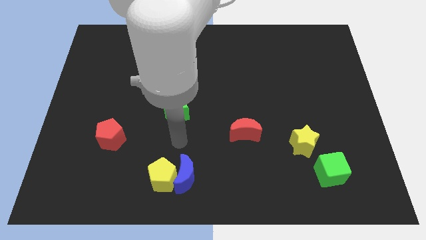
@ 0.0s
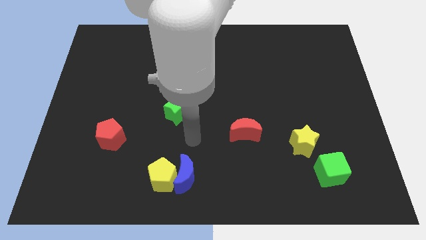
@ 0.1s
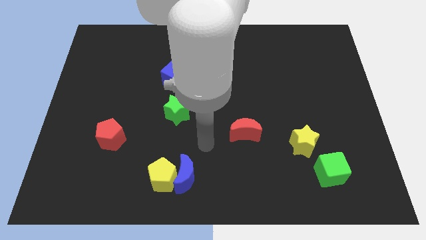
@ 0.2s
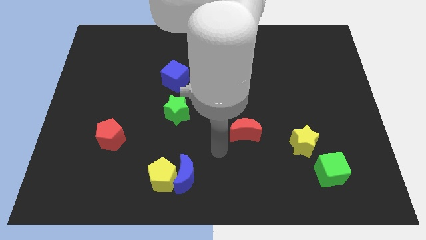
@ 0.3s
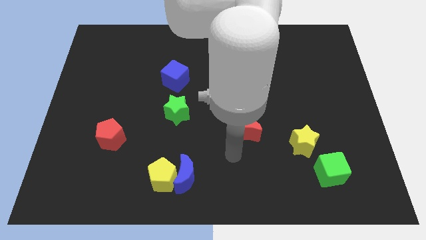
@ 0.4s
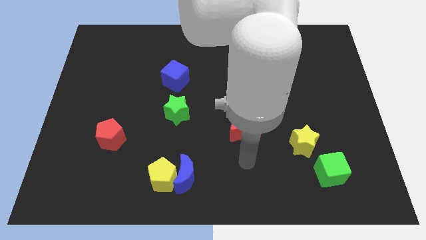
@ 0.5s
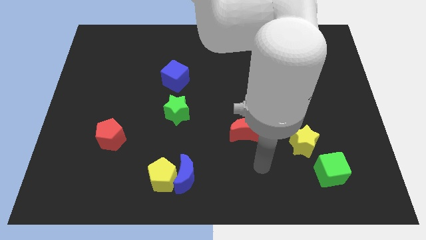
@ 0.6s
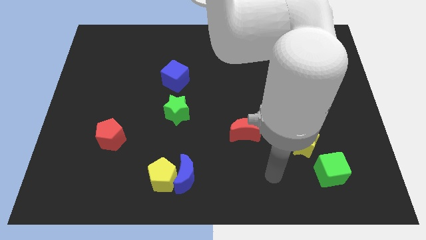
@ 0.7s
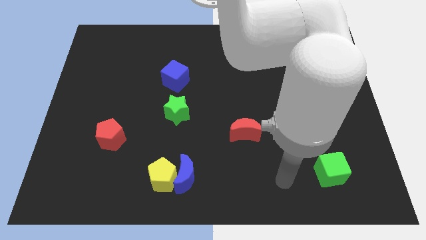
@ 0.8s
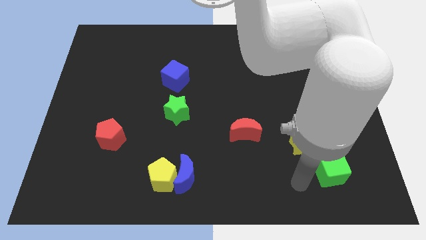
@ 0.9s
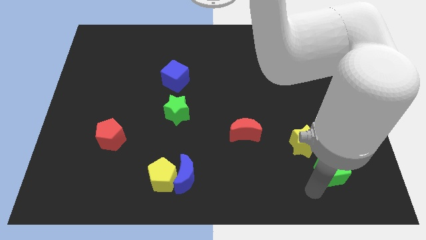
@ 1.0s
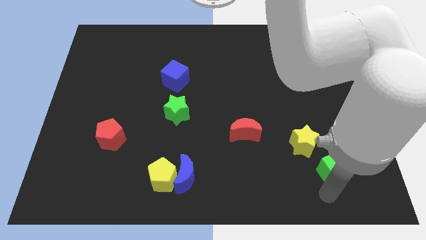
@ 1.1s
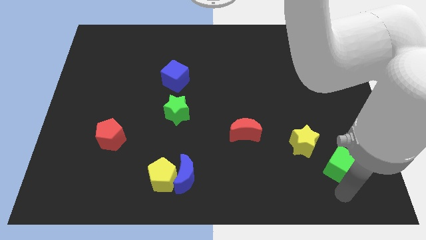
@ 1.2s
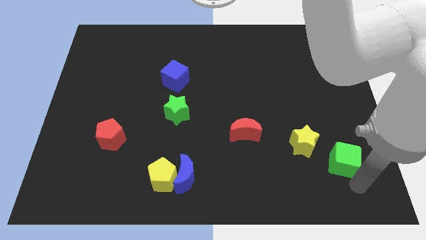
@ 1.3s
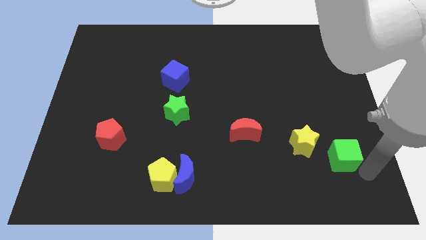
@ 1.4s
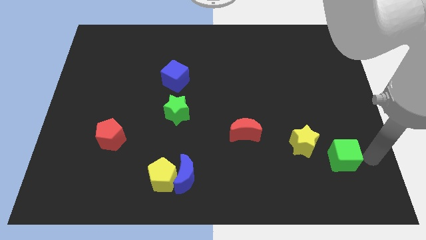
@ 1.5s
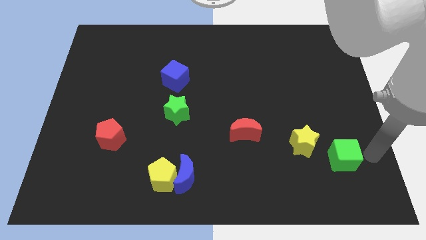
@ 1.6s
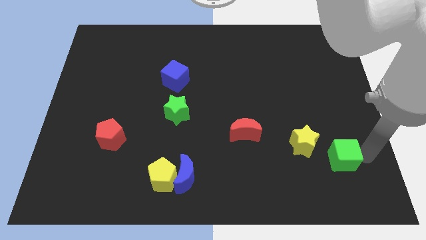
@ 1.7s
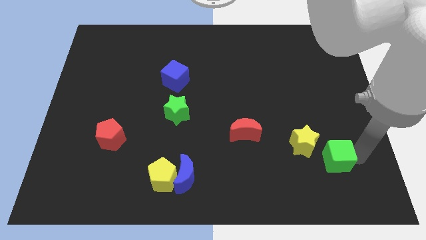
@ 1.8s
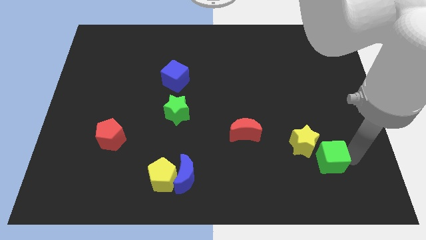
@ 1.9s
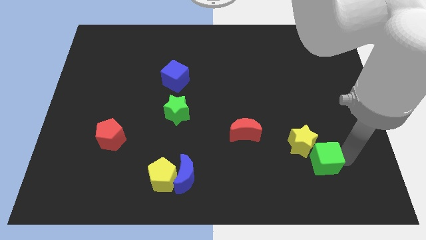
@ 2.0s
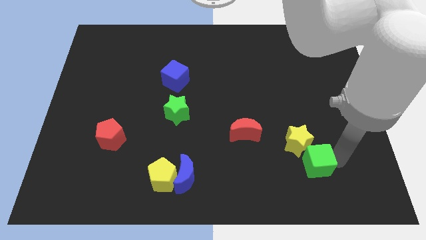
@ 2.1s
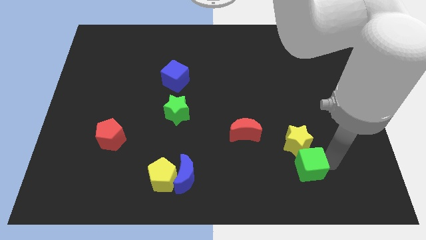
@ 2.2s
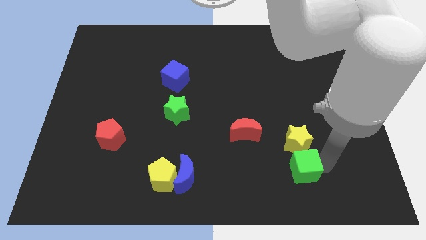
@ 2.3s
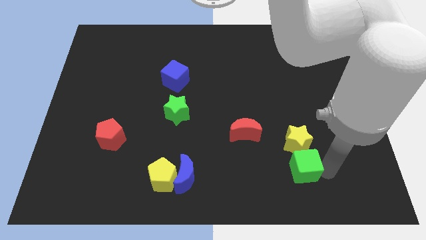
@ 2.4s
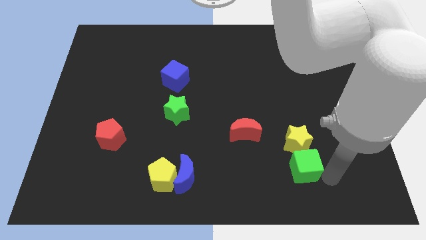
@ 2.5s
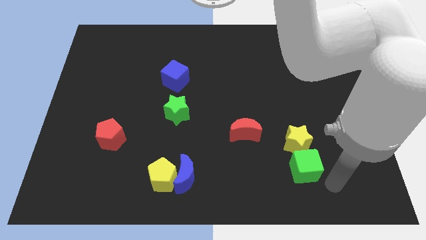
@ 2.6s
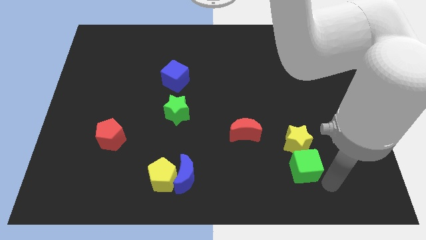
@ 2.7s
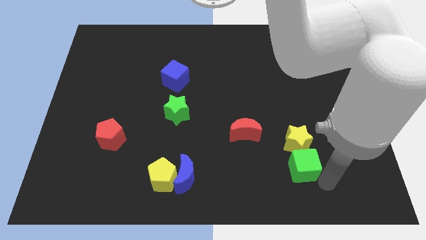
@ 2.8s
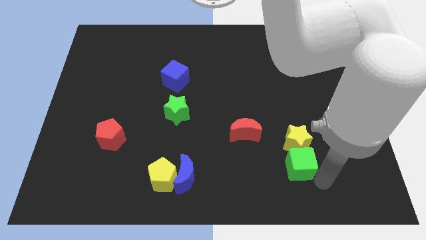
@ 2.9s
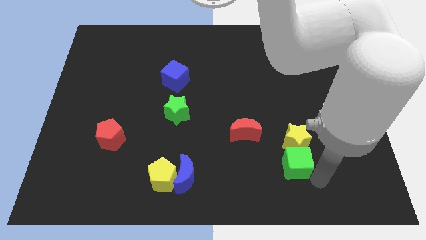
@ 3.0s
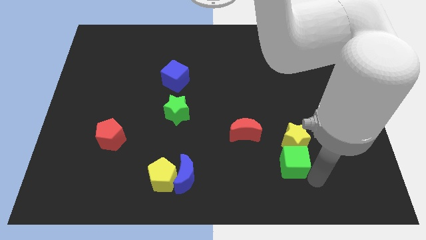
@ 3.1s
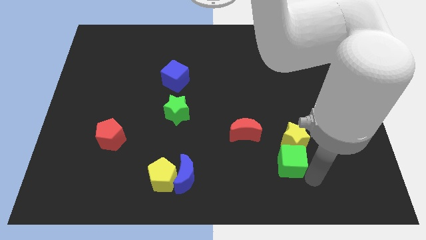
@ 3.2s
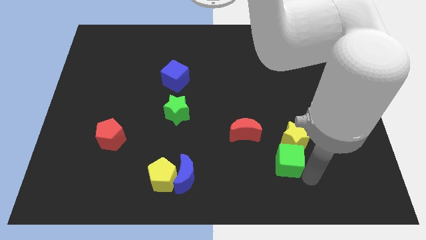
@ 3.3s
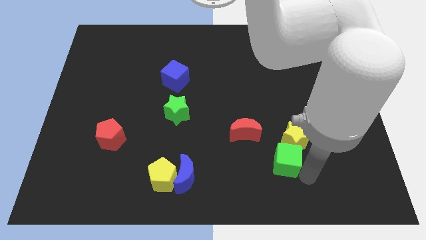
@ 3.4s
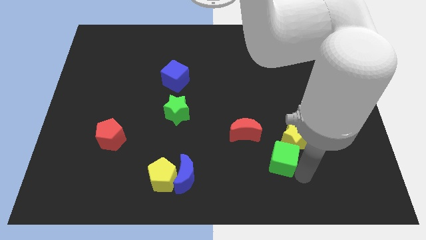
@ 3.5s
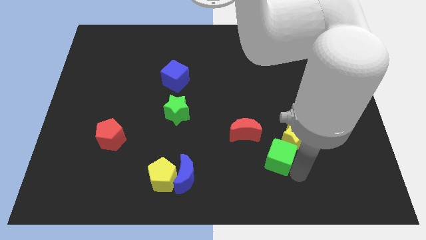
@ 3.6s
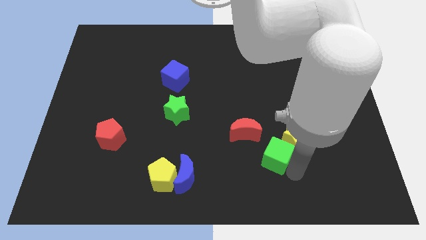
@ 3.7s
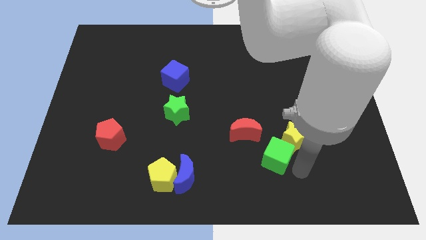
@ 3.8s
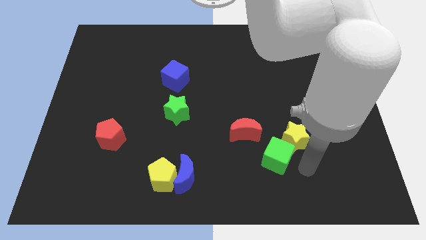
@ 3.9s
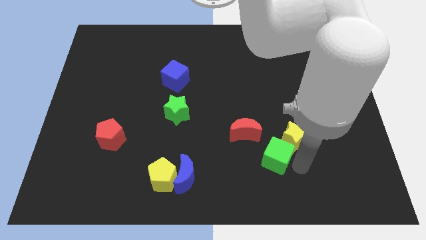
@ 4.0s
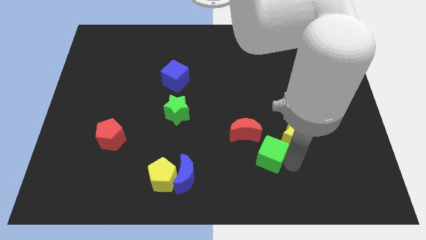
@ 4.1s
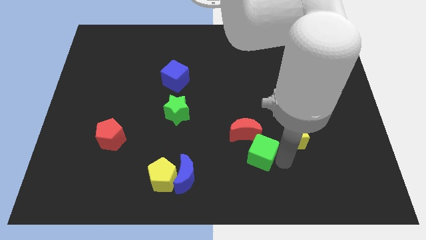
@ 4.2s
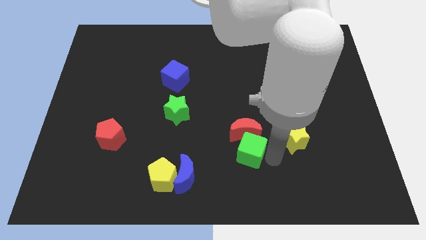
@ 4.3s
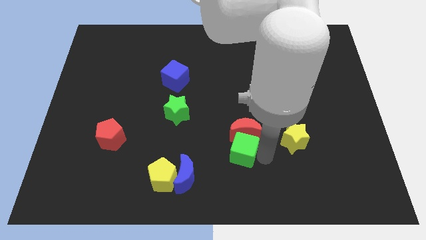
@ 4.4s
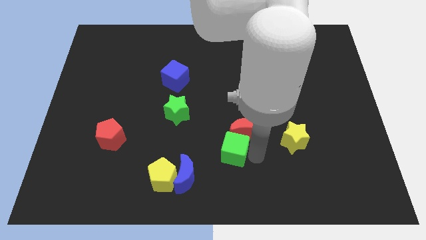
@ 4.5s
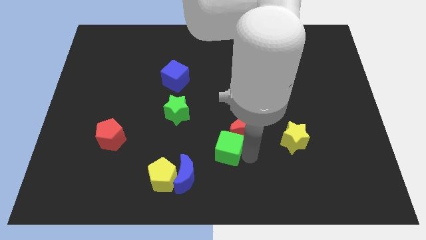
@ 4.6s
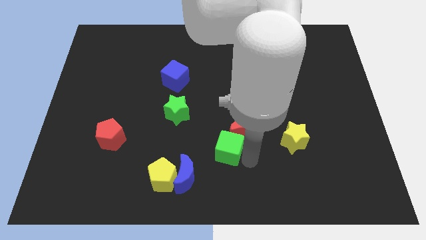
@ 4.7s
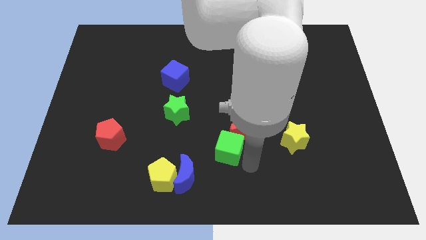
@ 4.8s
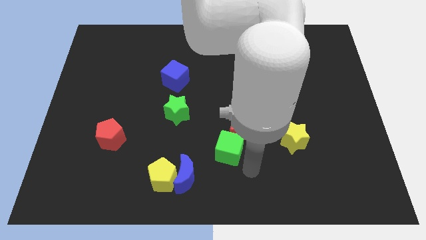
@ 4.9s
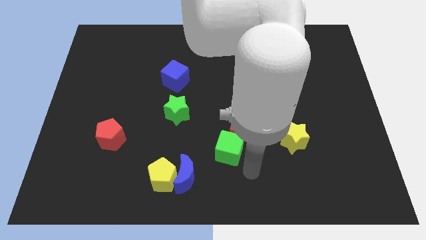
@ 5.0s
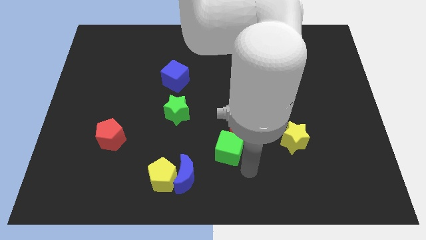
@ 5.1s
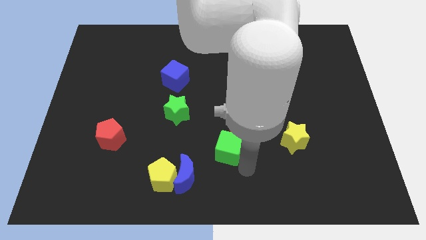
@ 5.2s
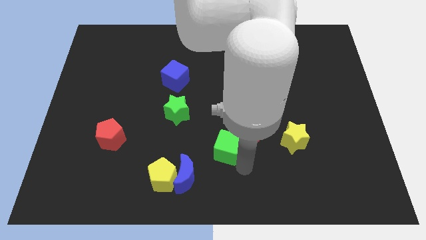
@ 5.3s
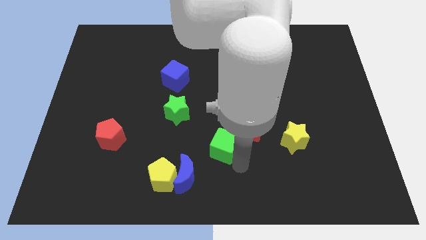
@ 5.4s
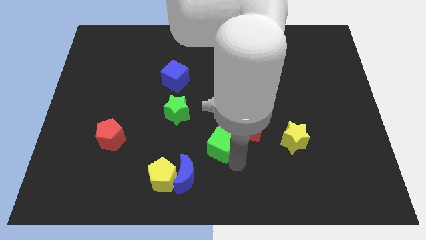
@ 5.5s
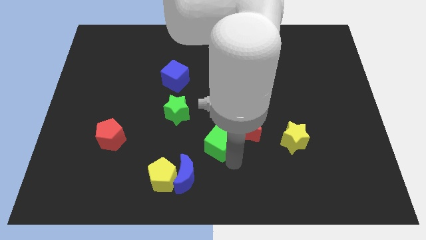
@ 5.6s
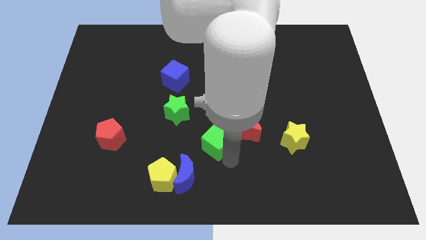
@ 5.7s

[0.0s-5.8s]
push the green cube to the bottom right of the green star

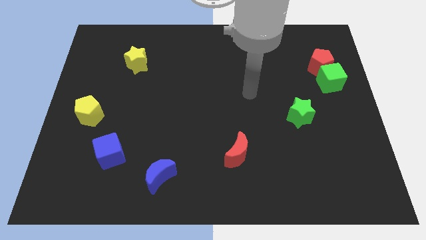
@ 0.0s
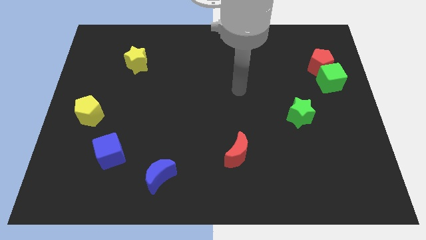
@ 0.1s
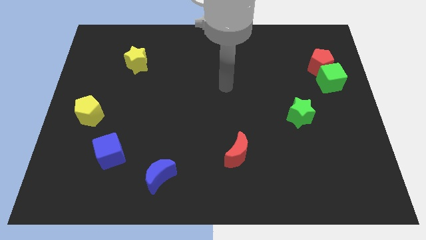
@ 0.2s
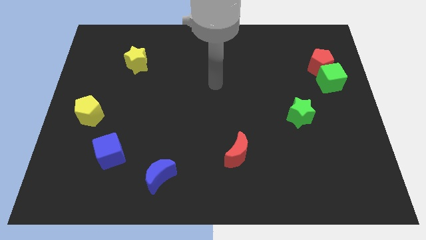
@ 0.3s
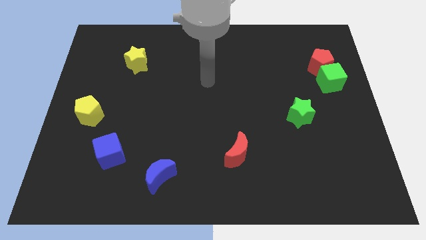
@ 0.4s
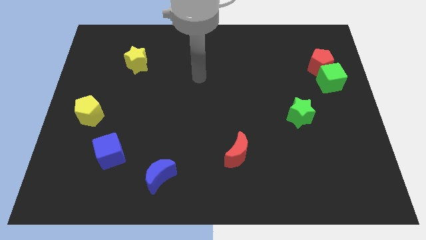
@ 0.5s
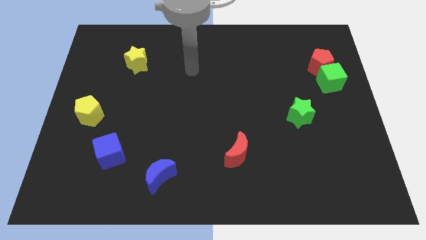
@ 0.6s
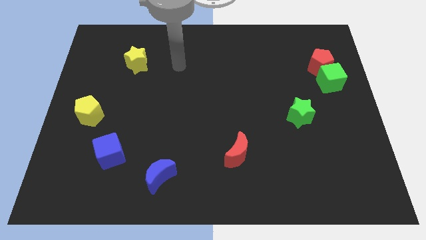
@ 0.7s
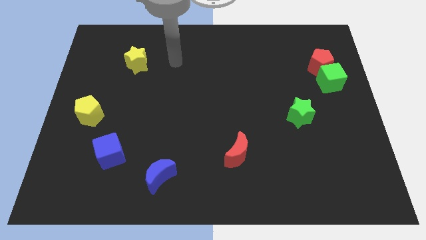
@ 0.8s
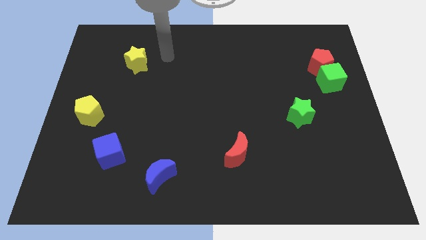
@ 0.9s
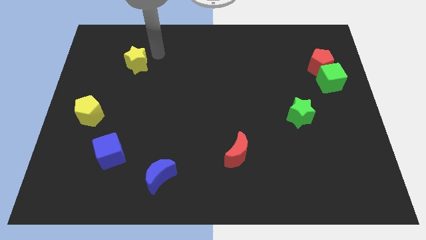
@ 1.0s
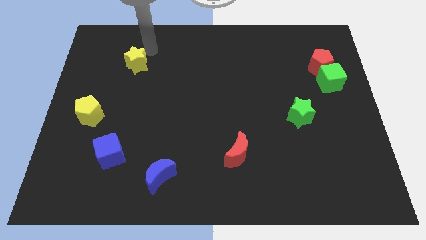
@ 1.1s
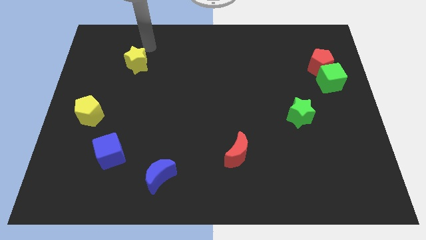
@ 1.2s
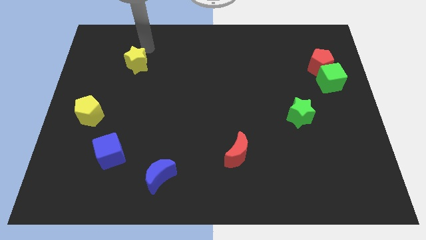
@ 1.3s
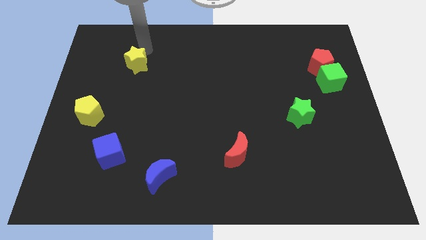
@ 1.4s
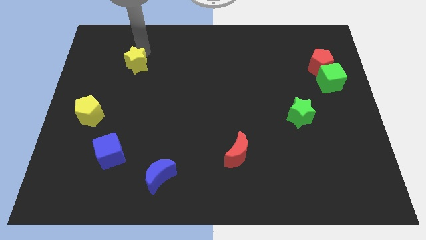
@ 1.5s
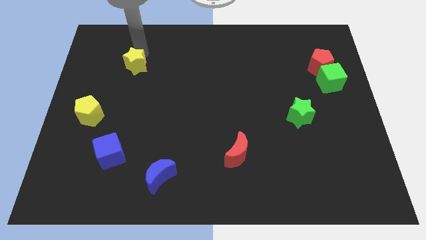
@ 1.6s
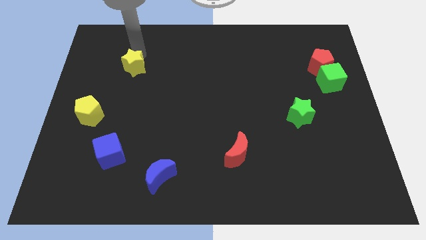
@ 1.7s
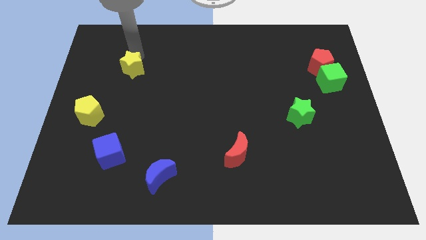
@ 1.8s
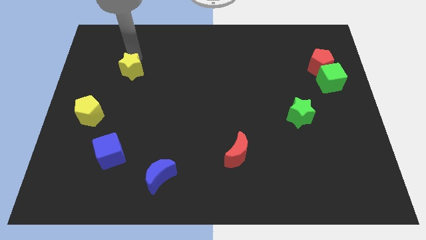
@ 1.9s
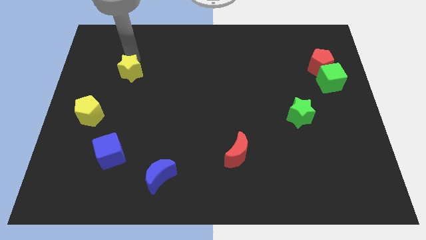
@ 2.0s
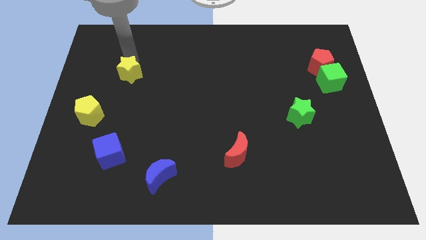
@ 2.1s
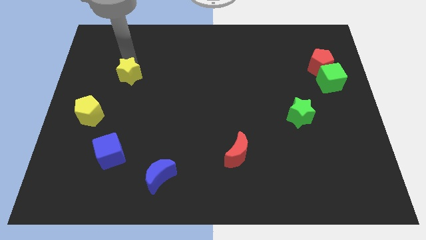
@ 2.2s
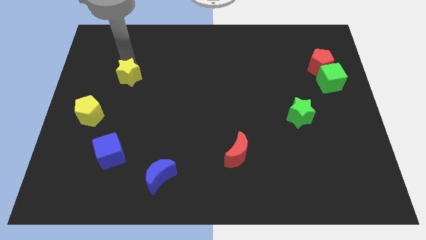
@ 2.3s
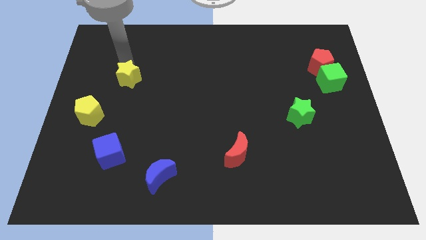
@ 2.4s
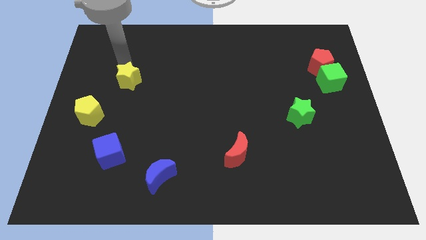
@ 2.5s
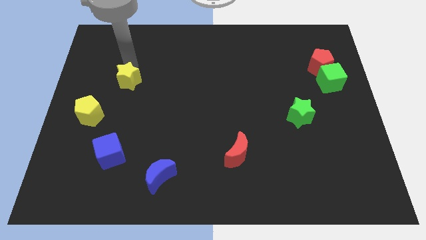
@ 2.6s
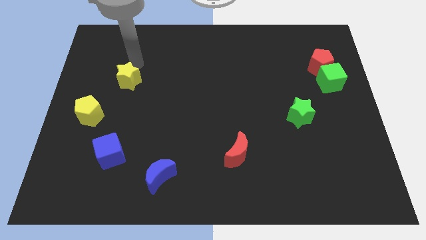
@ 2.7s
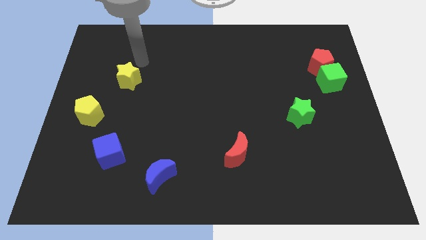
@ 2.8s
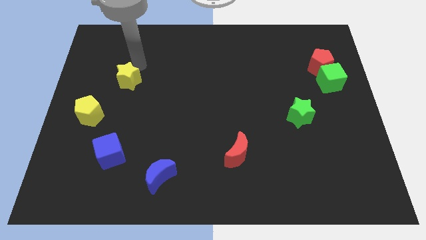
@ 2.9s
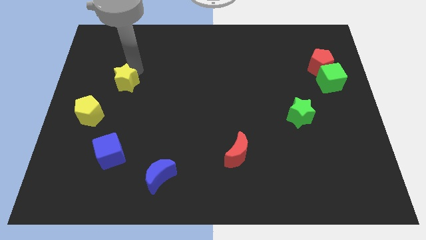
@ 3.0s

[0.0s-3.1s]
slide the yellow star diagonally up and to the right of the yellow pentagon
